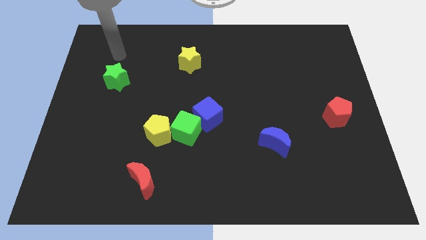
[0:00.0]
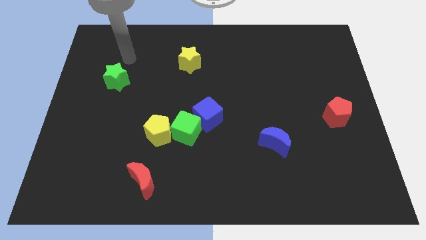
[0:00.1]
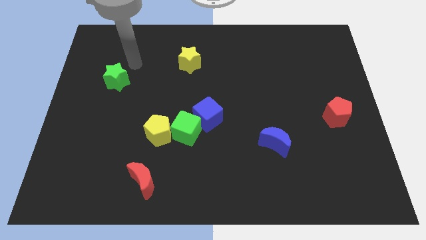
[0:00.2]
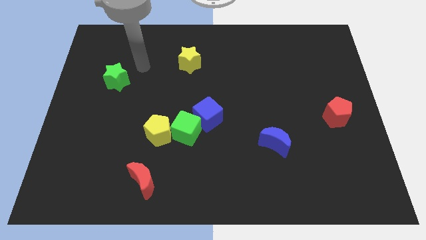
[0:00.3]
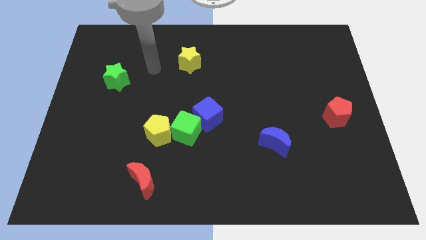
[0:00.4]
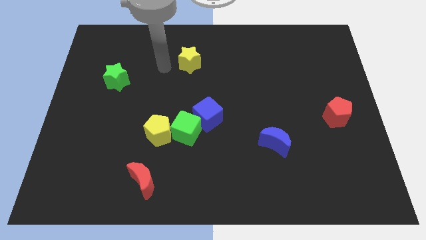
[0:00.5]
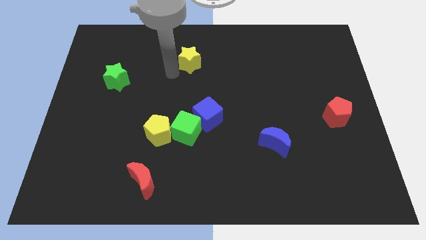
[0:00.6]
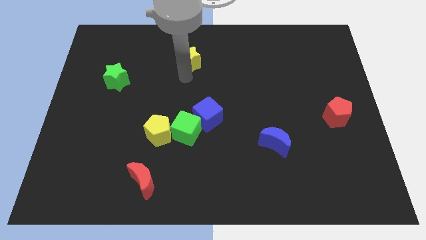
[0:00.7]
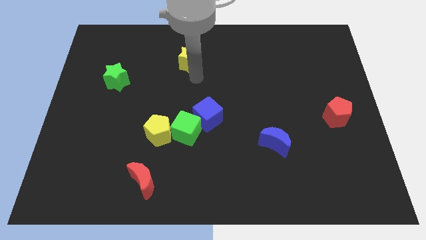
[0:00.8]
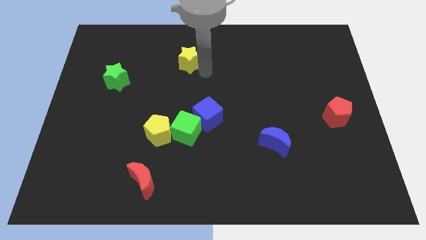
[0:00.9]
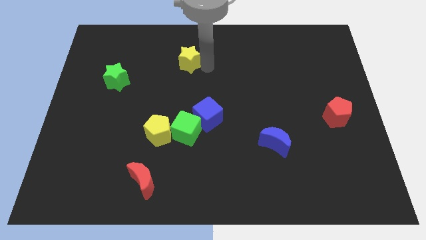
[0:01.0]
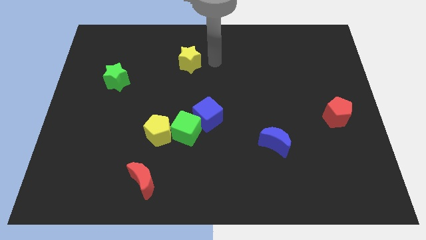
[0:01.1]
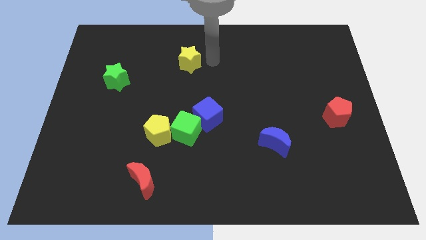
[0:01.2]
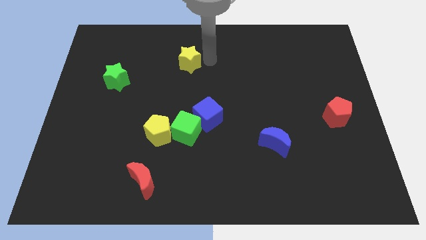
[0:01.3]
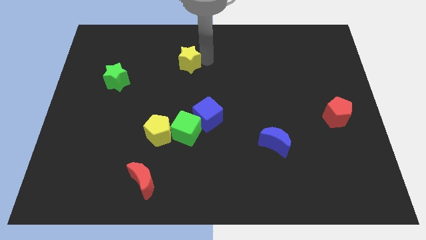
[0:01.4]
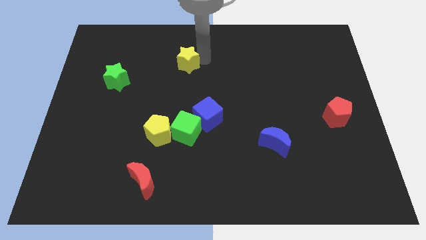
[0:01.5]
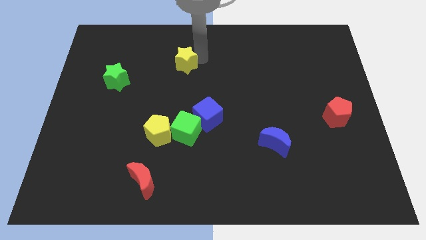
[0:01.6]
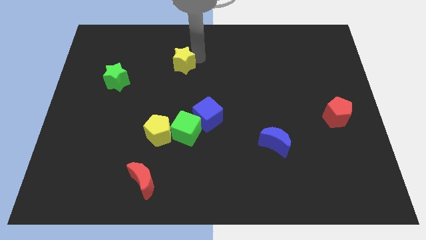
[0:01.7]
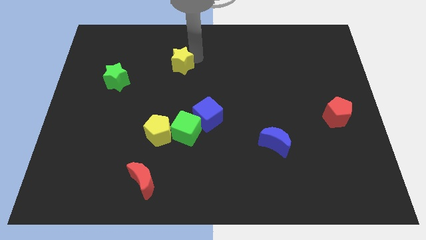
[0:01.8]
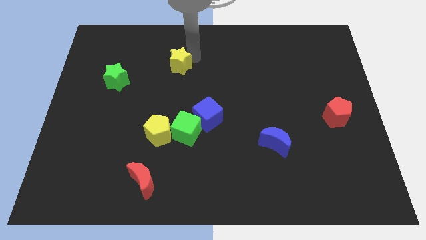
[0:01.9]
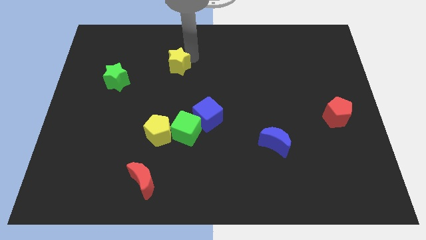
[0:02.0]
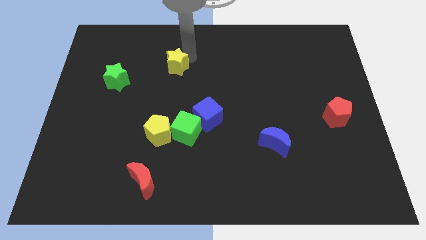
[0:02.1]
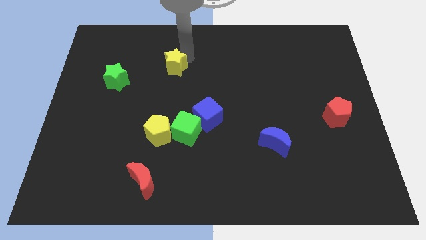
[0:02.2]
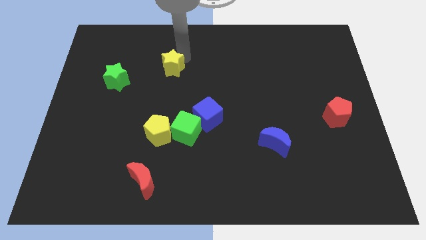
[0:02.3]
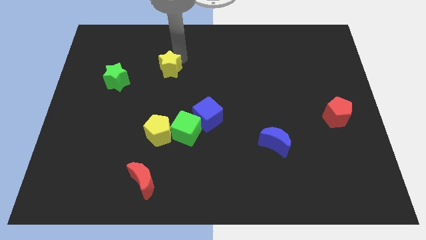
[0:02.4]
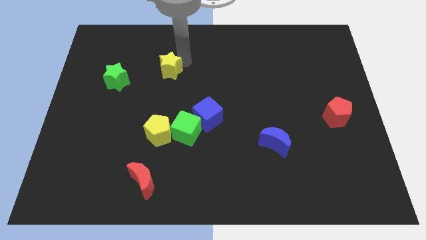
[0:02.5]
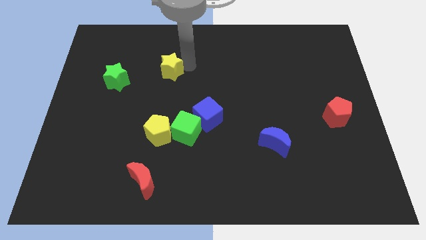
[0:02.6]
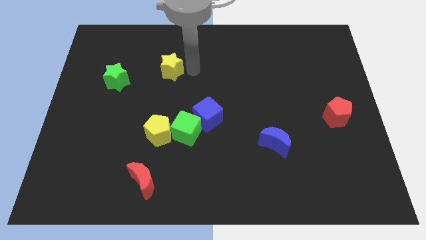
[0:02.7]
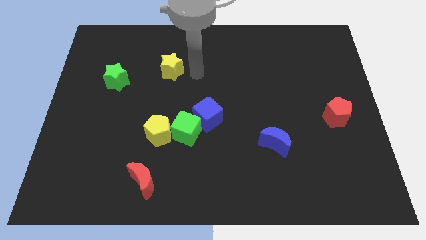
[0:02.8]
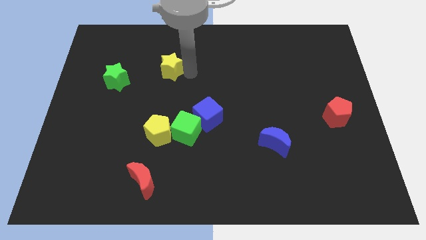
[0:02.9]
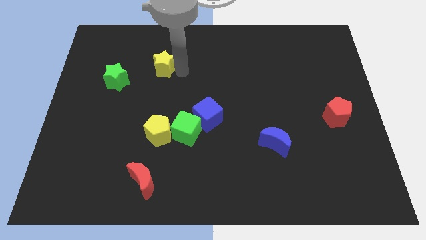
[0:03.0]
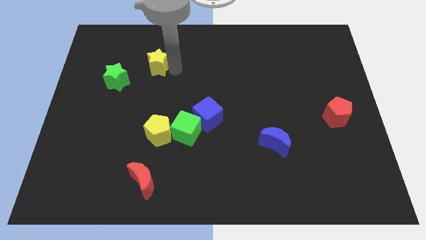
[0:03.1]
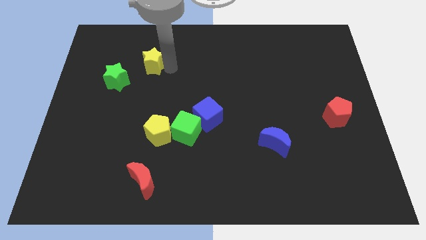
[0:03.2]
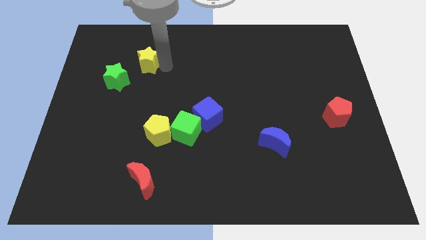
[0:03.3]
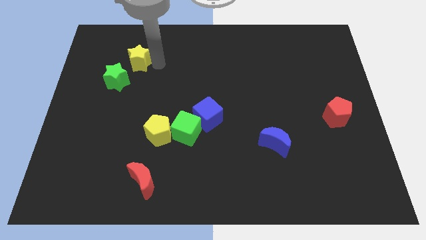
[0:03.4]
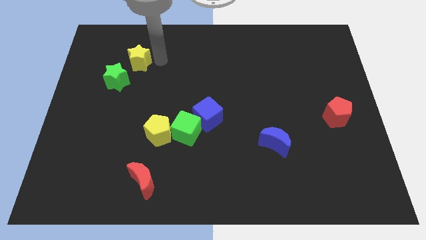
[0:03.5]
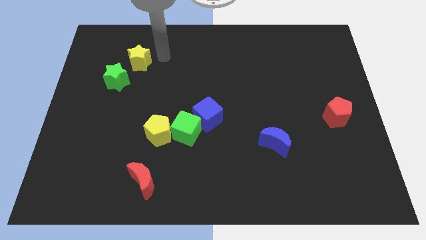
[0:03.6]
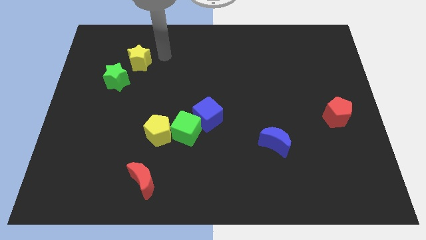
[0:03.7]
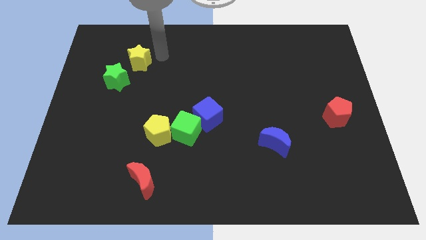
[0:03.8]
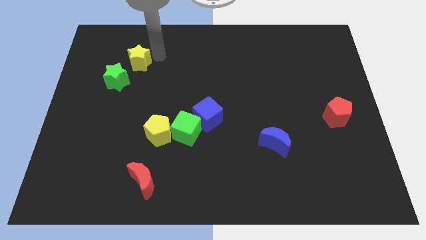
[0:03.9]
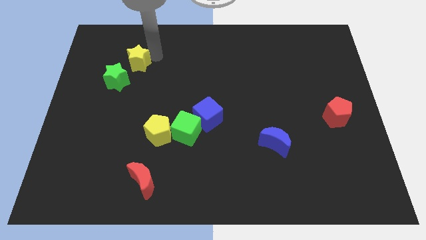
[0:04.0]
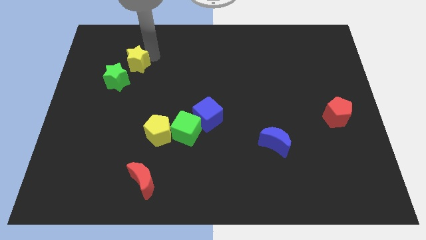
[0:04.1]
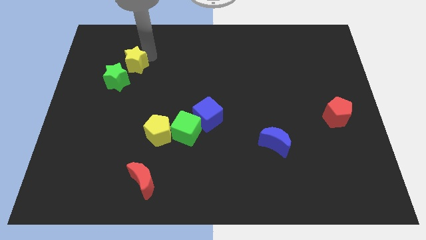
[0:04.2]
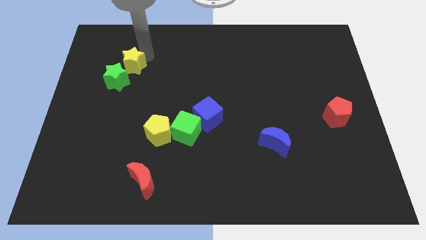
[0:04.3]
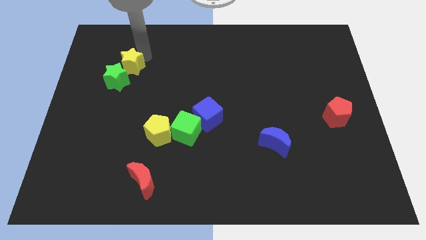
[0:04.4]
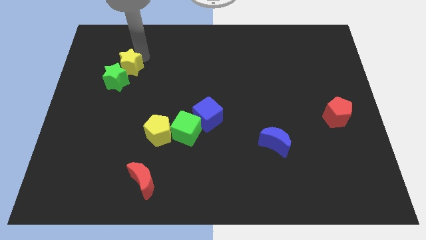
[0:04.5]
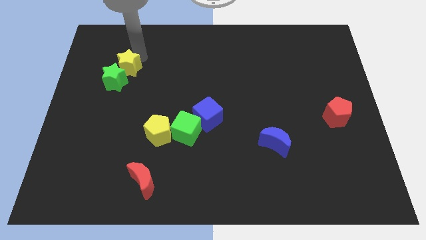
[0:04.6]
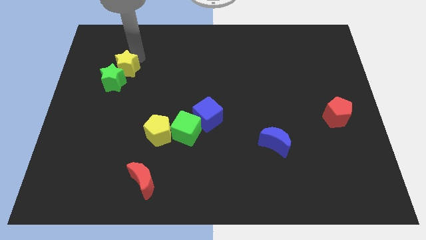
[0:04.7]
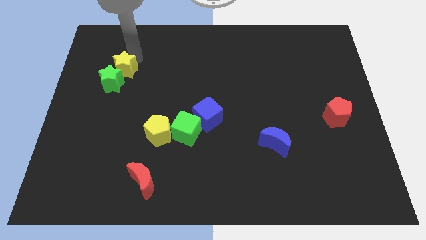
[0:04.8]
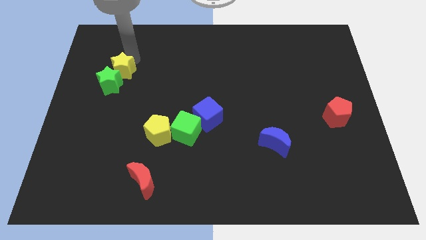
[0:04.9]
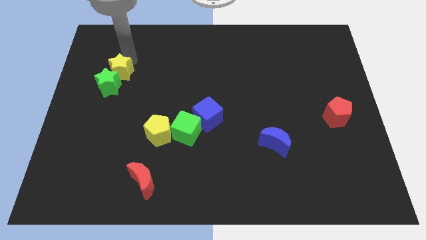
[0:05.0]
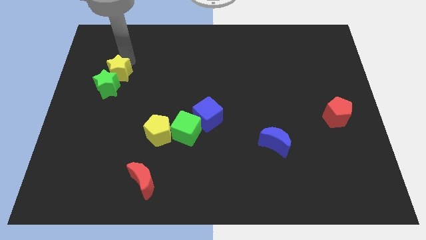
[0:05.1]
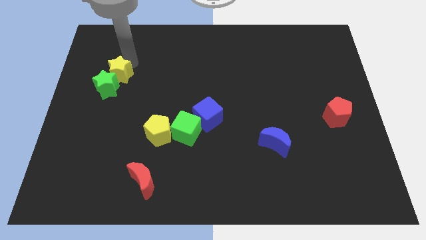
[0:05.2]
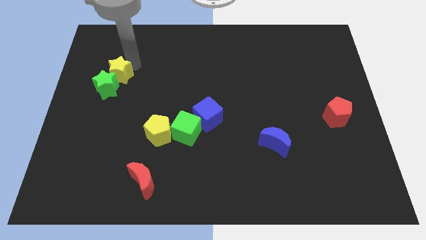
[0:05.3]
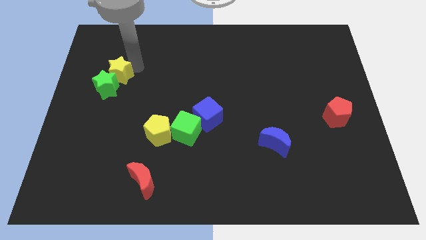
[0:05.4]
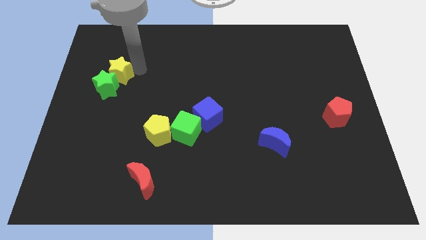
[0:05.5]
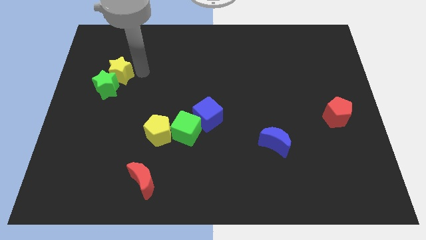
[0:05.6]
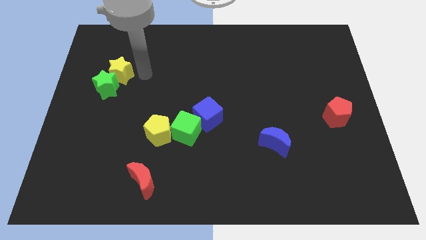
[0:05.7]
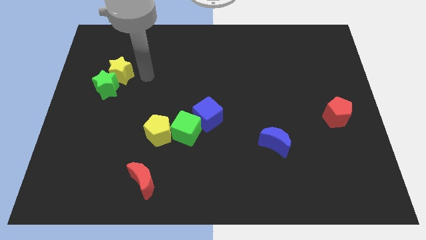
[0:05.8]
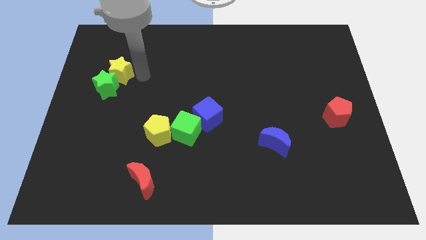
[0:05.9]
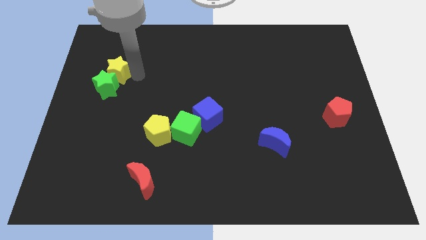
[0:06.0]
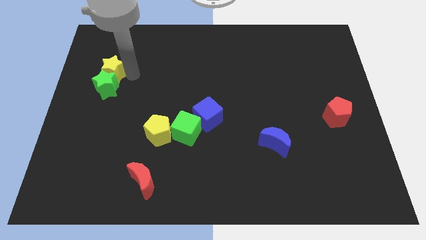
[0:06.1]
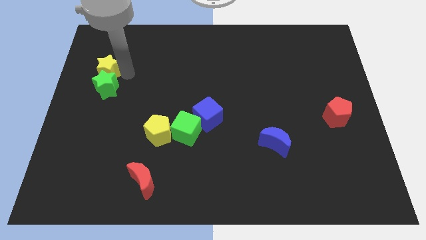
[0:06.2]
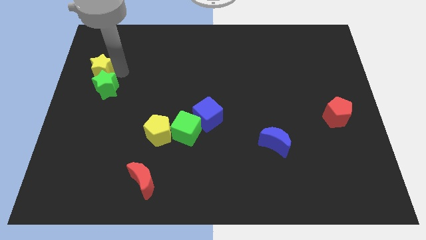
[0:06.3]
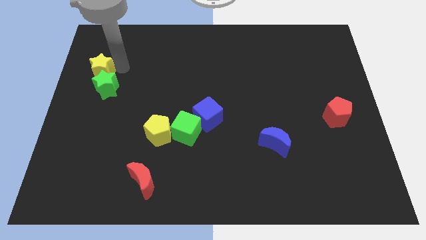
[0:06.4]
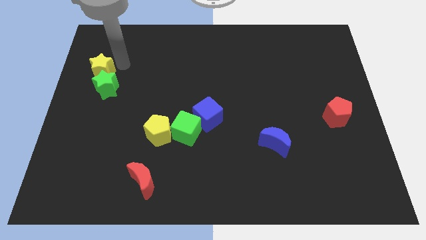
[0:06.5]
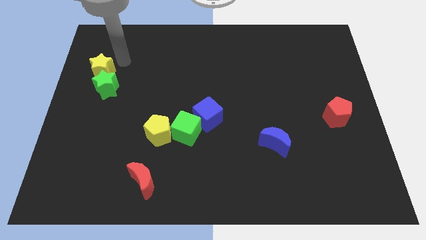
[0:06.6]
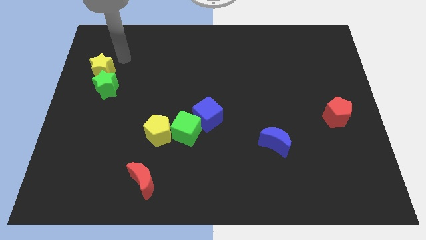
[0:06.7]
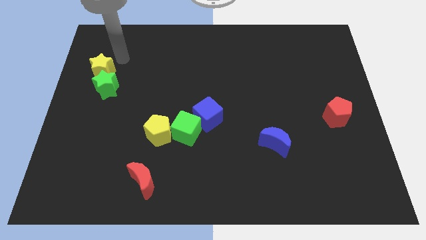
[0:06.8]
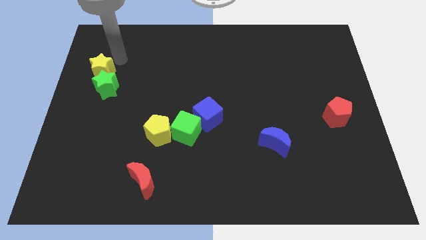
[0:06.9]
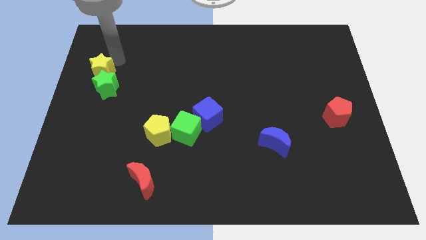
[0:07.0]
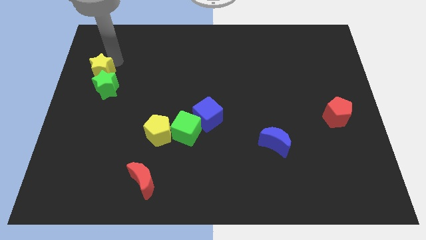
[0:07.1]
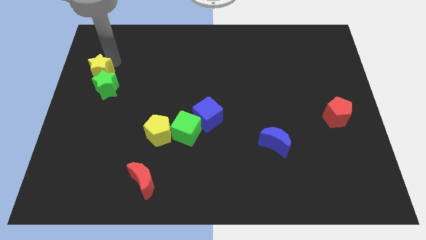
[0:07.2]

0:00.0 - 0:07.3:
put the yellow star to the left side of the board

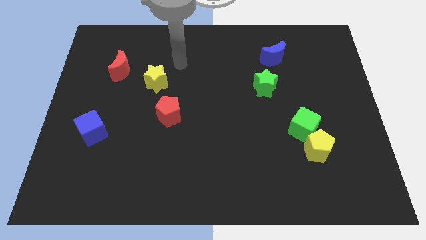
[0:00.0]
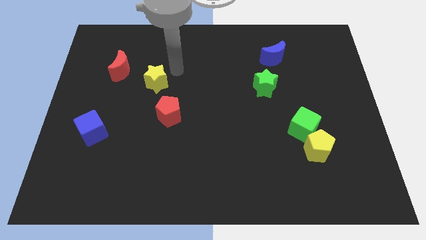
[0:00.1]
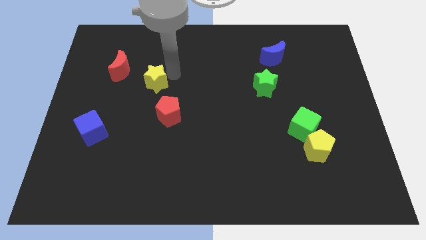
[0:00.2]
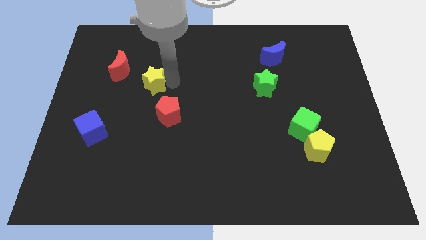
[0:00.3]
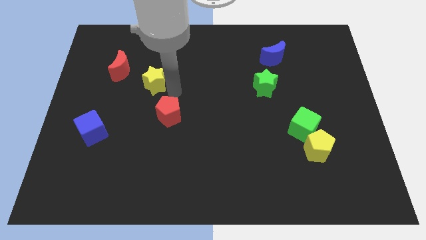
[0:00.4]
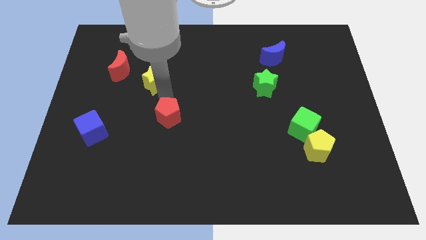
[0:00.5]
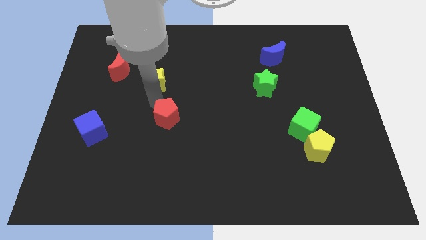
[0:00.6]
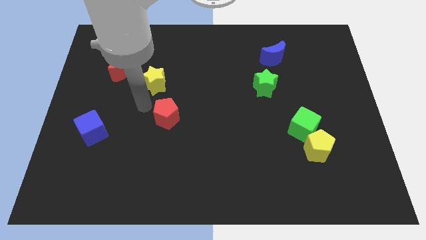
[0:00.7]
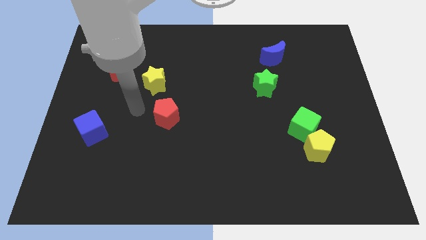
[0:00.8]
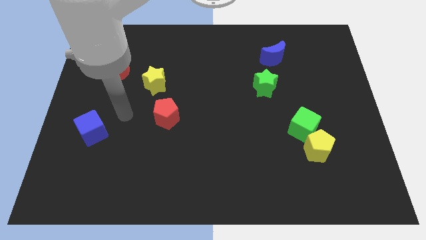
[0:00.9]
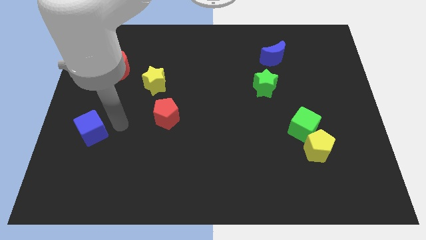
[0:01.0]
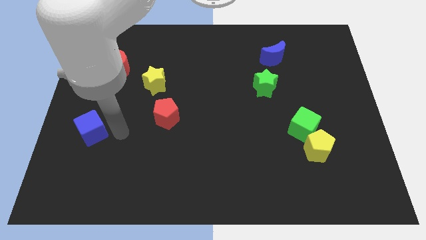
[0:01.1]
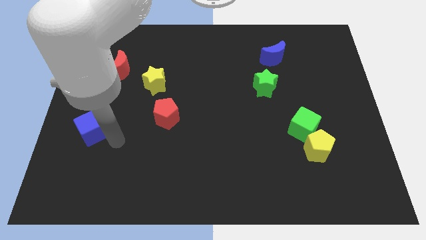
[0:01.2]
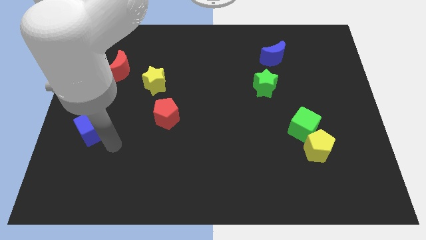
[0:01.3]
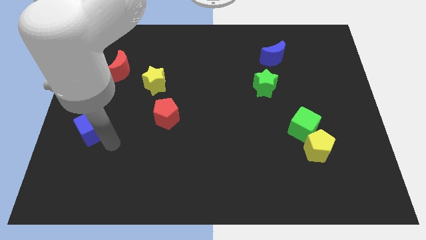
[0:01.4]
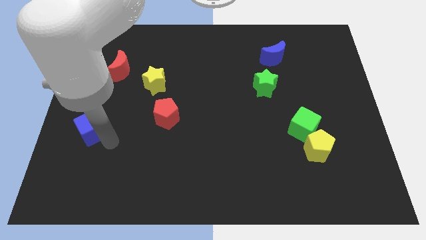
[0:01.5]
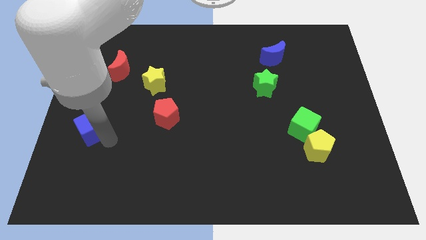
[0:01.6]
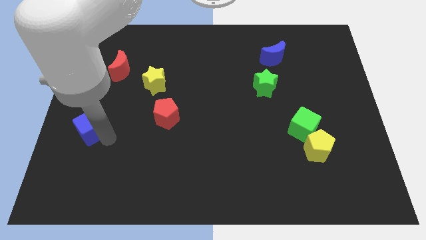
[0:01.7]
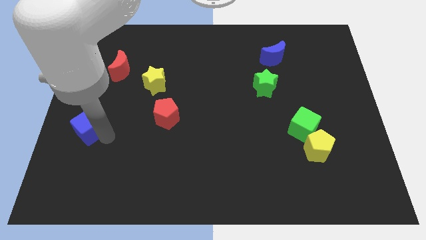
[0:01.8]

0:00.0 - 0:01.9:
move the blue cube to the center left
